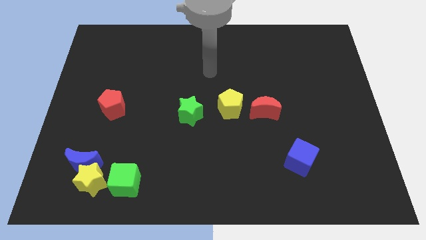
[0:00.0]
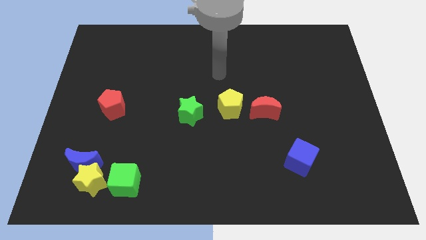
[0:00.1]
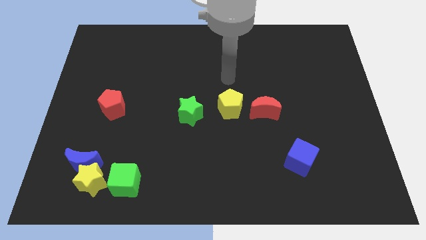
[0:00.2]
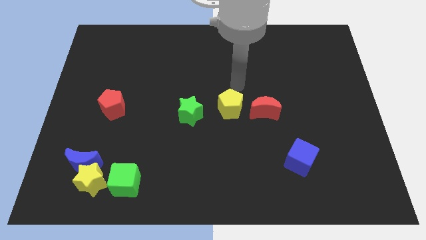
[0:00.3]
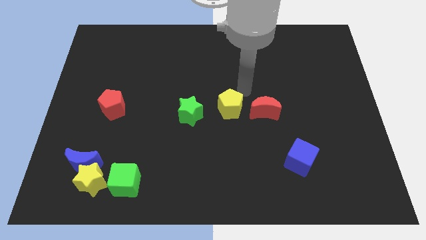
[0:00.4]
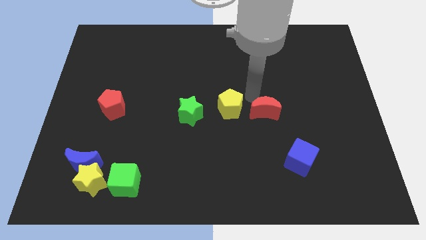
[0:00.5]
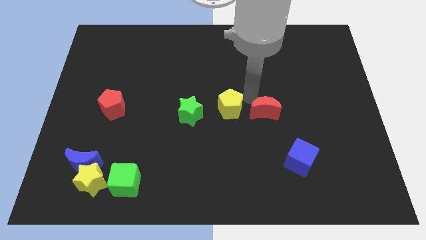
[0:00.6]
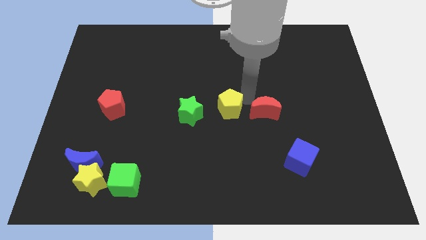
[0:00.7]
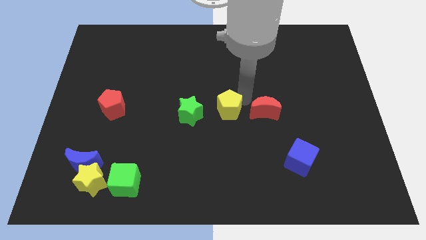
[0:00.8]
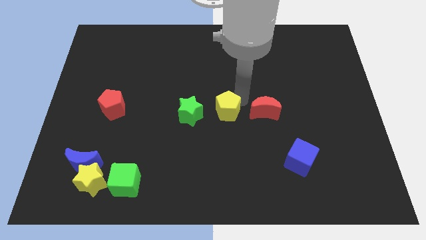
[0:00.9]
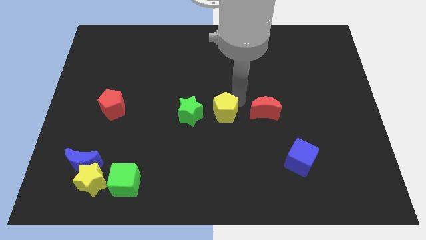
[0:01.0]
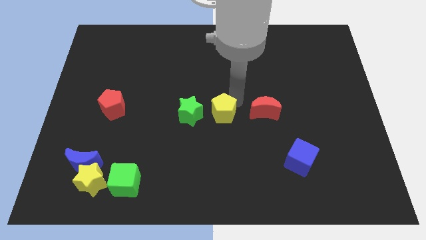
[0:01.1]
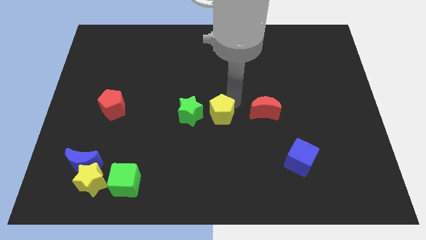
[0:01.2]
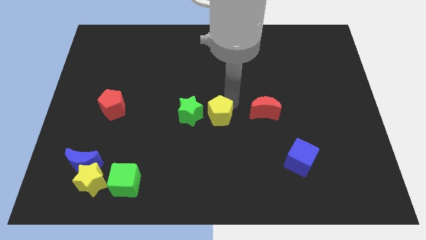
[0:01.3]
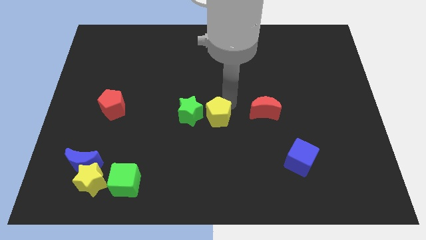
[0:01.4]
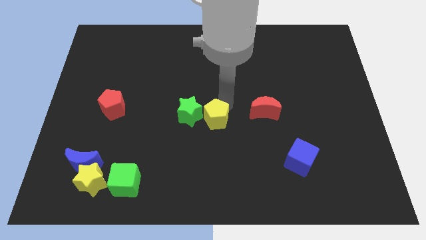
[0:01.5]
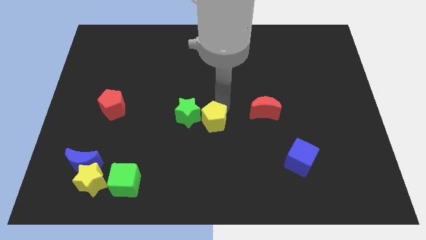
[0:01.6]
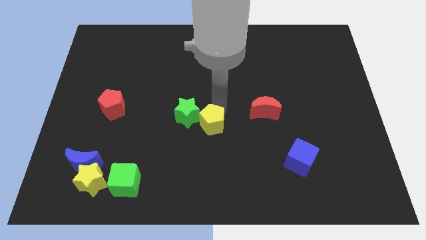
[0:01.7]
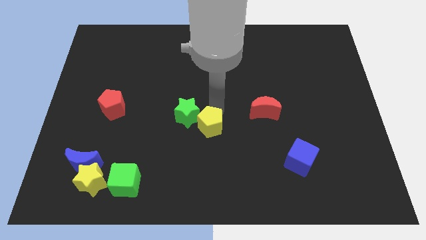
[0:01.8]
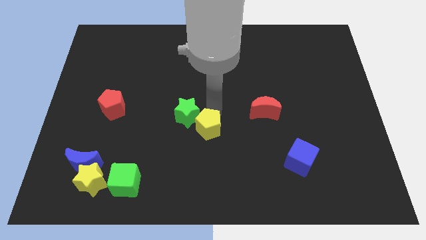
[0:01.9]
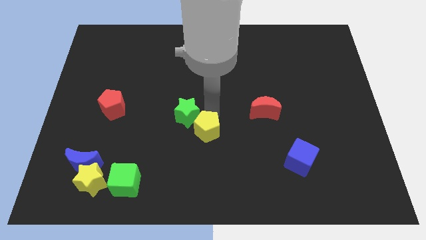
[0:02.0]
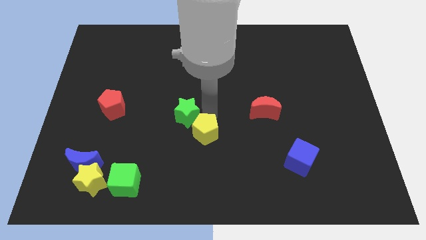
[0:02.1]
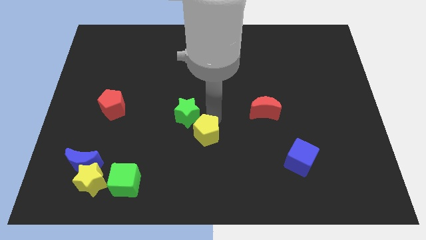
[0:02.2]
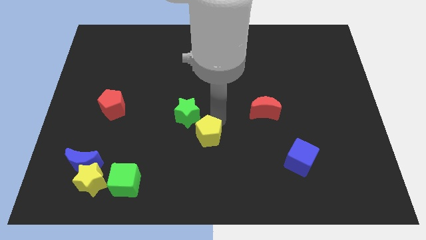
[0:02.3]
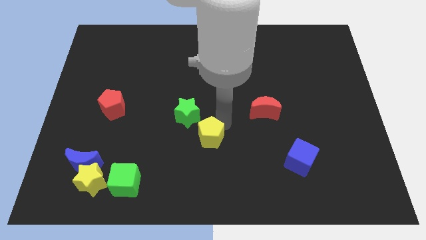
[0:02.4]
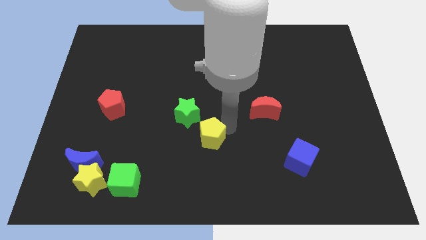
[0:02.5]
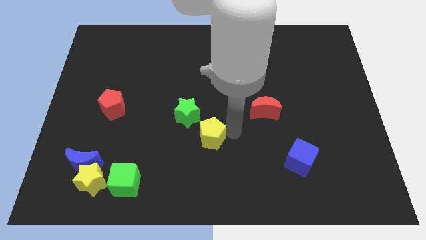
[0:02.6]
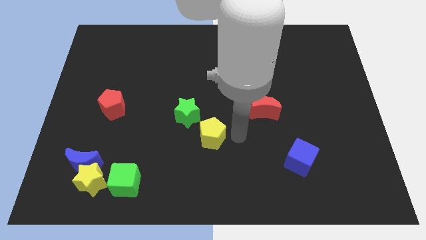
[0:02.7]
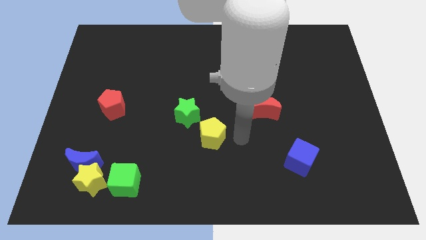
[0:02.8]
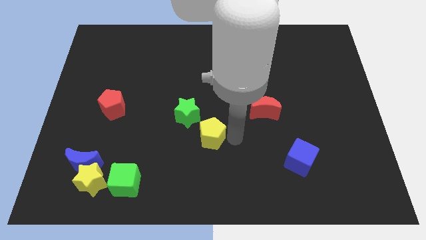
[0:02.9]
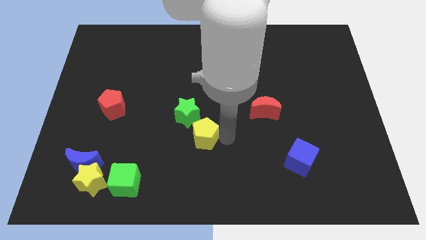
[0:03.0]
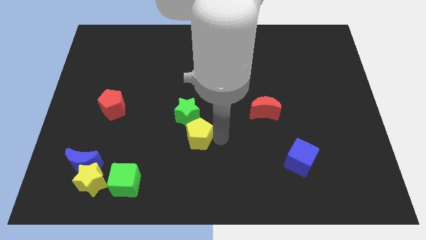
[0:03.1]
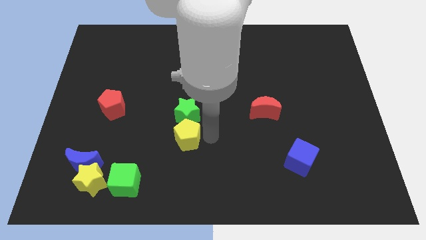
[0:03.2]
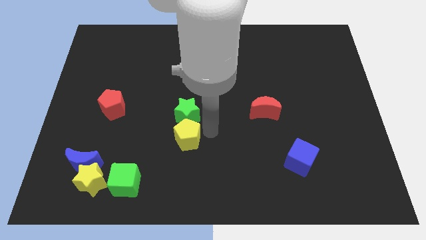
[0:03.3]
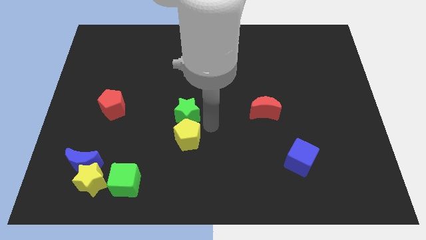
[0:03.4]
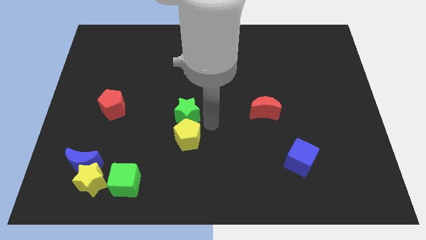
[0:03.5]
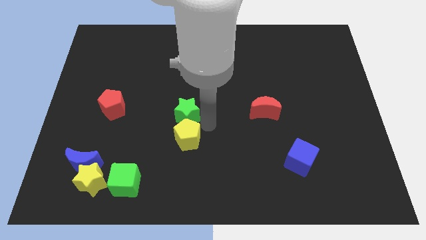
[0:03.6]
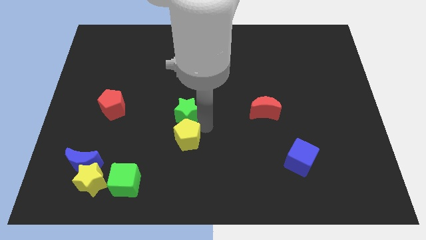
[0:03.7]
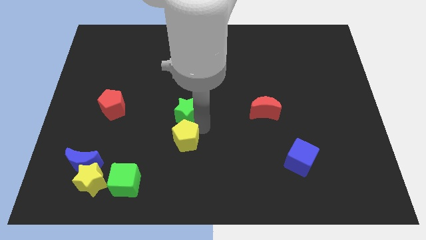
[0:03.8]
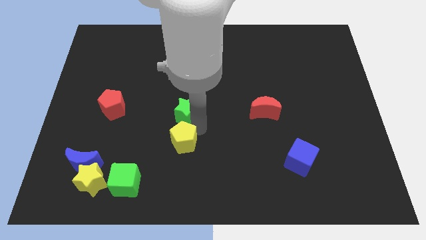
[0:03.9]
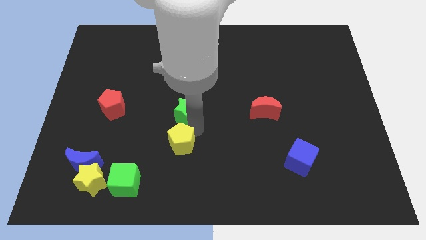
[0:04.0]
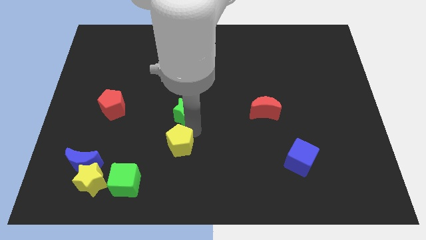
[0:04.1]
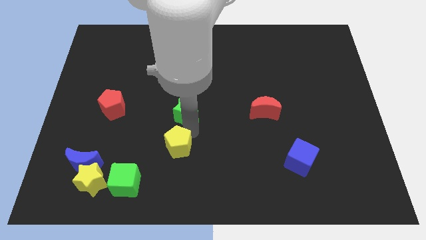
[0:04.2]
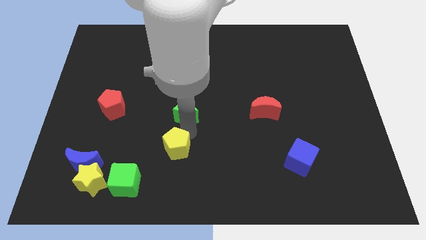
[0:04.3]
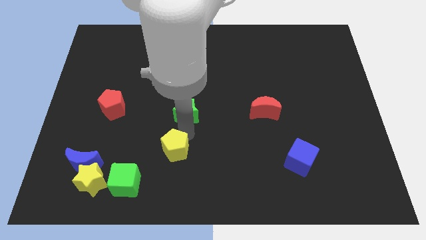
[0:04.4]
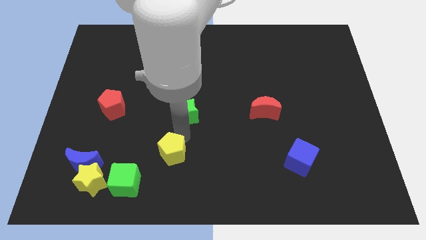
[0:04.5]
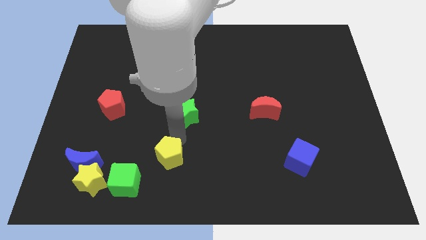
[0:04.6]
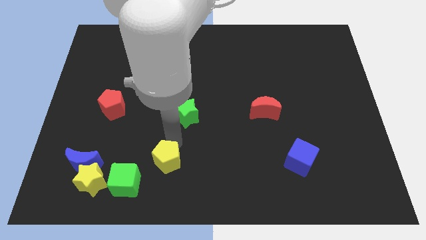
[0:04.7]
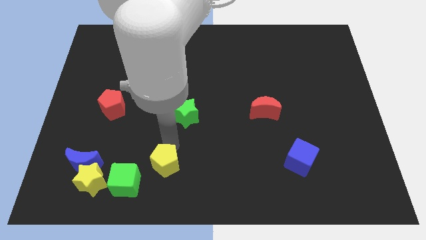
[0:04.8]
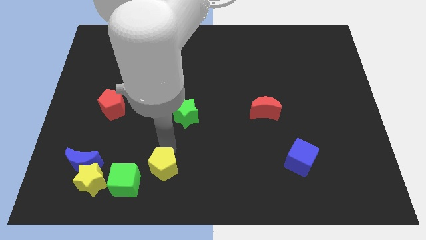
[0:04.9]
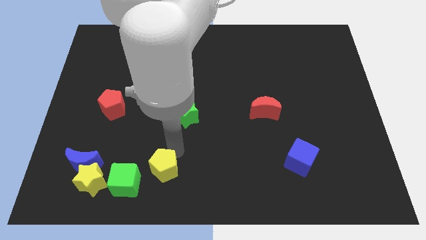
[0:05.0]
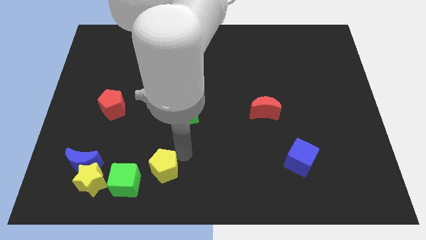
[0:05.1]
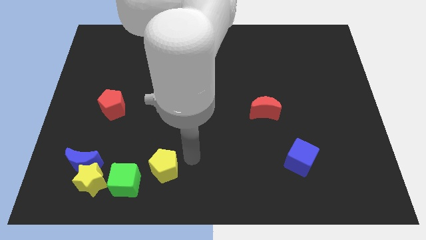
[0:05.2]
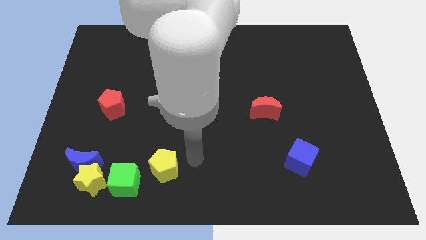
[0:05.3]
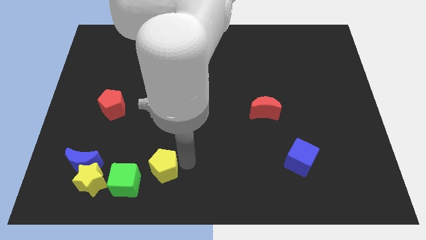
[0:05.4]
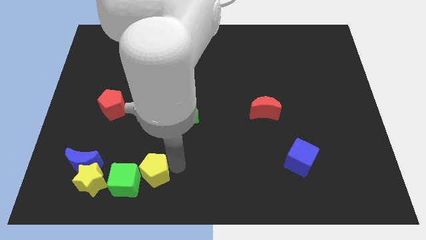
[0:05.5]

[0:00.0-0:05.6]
move the yellow pentagon to the green cube
